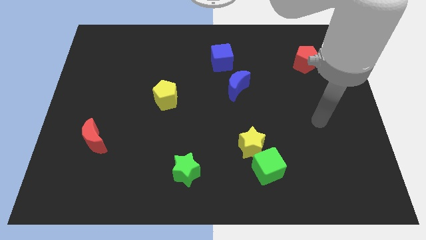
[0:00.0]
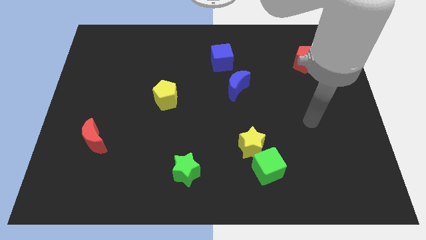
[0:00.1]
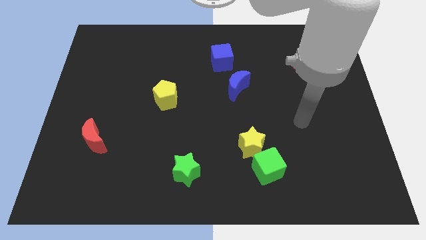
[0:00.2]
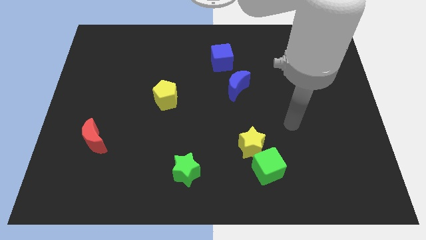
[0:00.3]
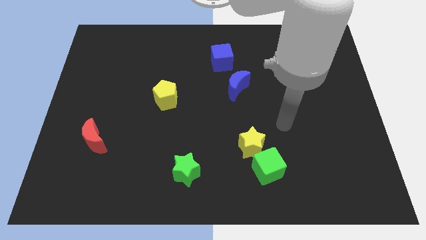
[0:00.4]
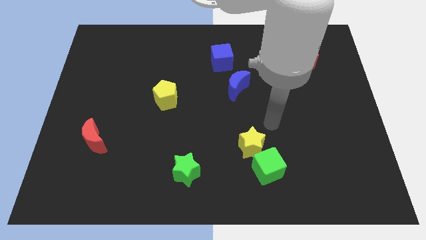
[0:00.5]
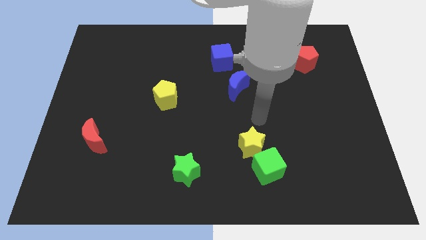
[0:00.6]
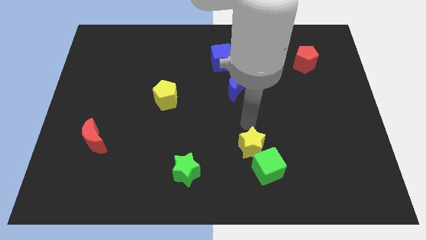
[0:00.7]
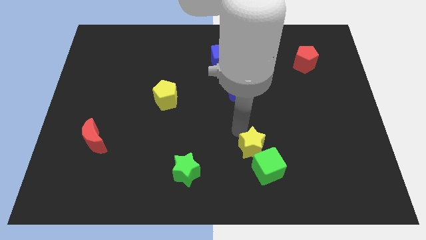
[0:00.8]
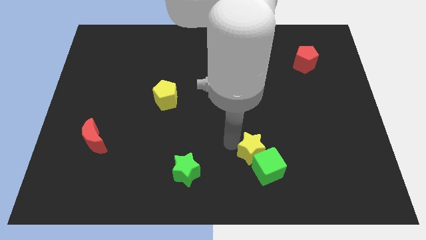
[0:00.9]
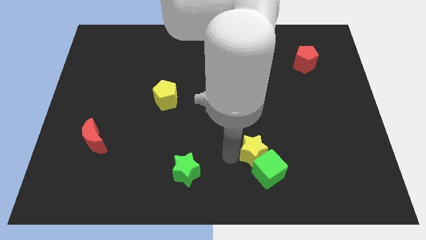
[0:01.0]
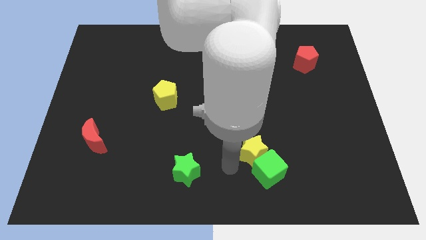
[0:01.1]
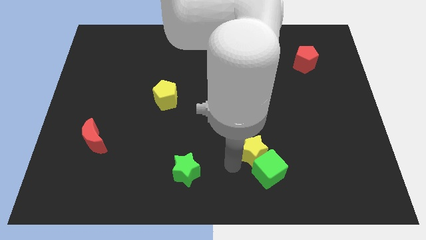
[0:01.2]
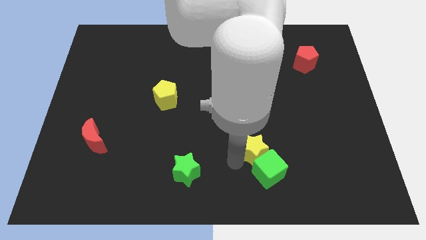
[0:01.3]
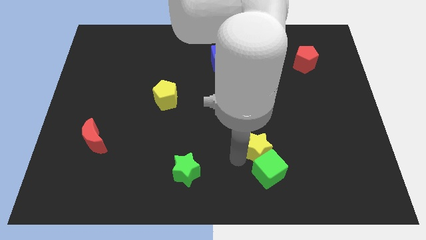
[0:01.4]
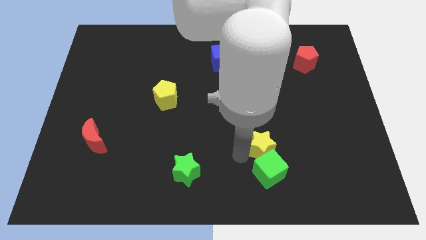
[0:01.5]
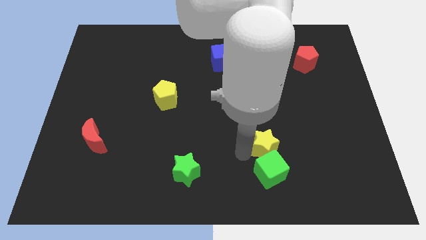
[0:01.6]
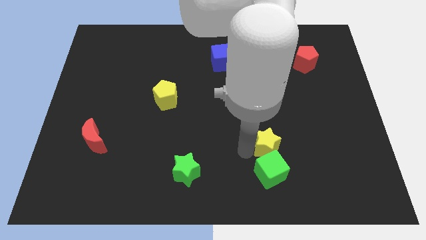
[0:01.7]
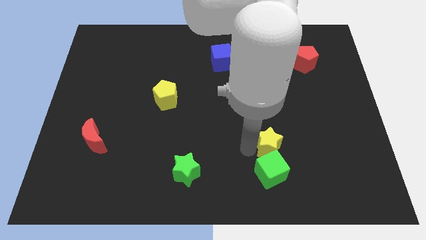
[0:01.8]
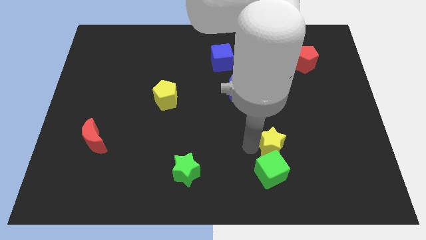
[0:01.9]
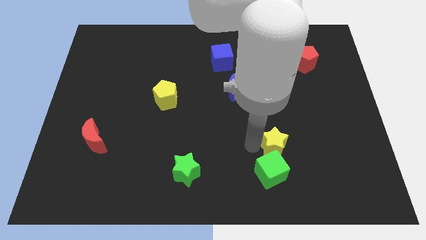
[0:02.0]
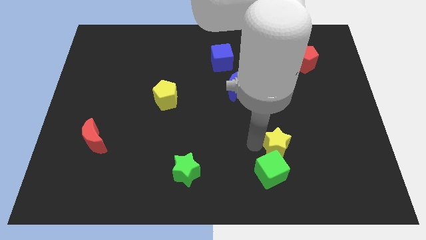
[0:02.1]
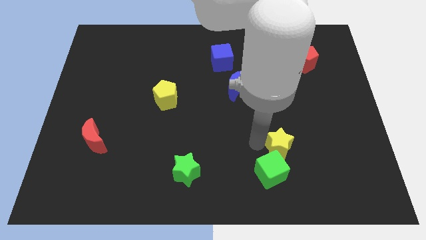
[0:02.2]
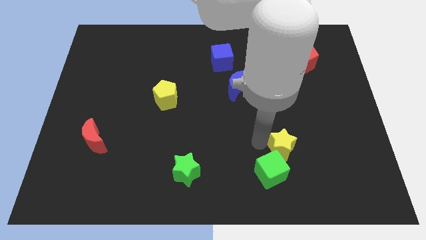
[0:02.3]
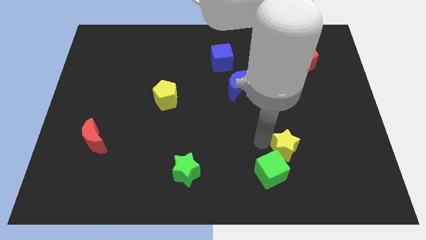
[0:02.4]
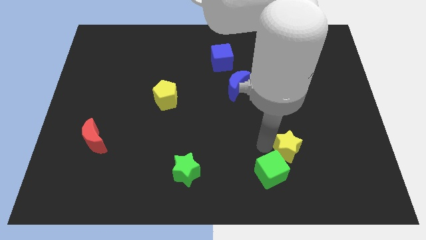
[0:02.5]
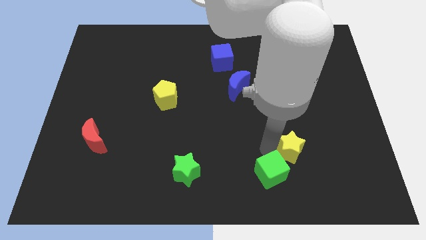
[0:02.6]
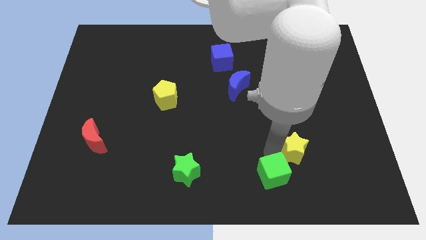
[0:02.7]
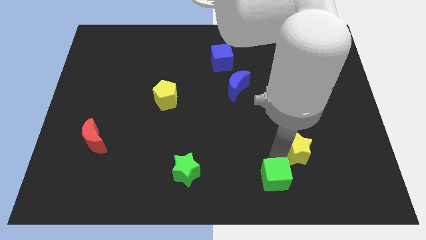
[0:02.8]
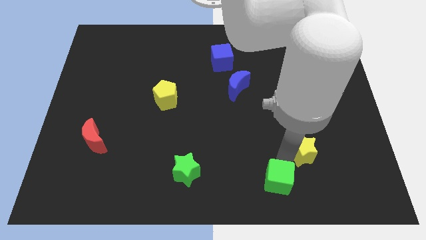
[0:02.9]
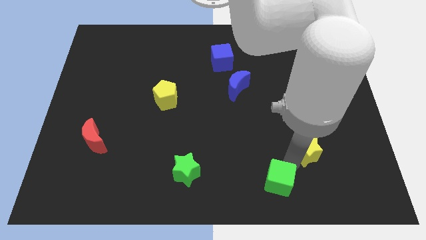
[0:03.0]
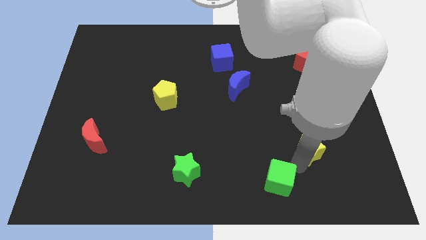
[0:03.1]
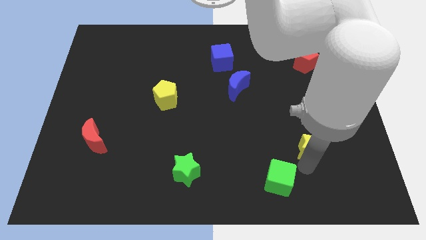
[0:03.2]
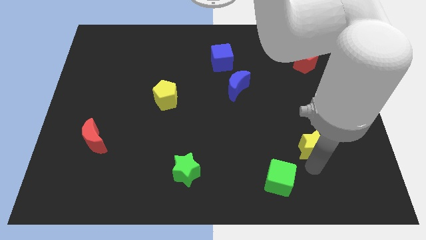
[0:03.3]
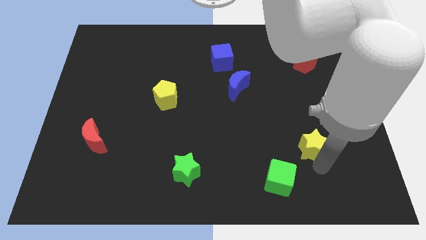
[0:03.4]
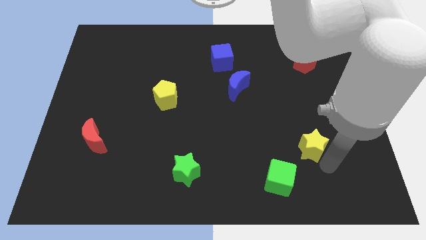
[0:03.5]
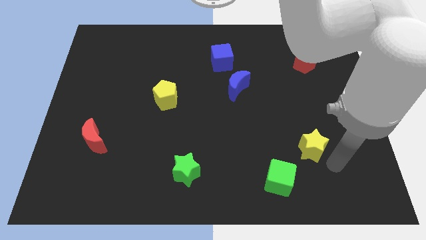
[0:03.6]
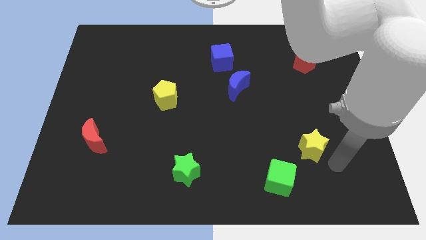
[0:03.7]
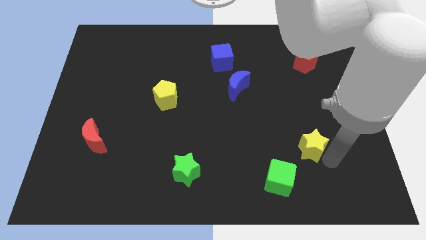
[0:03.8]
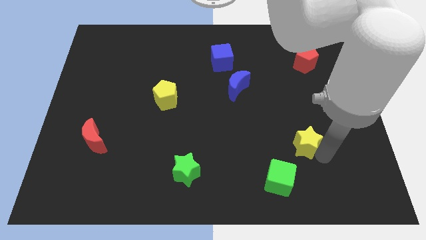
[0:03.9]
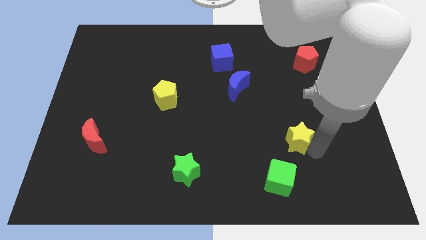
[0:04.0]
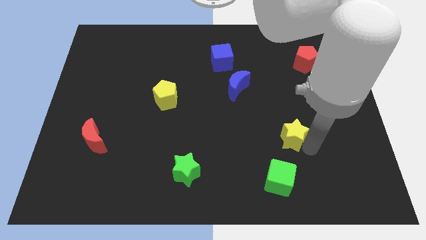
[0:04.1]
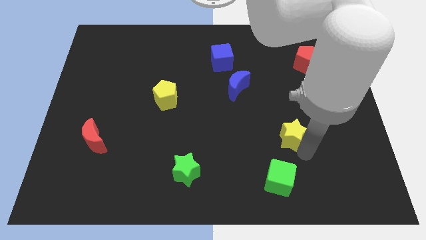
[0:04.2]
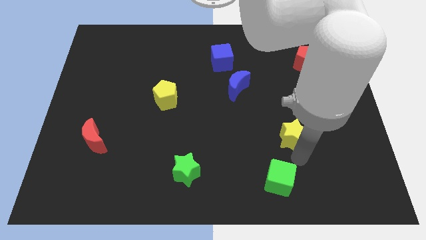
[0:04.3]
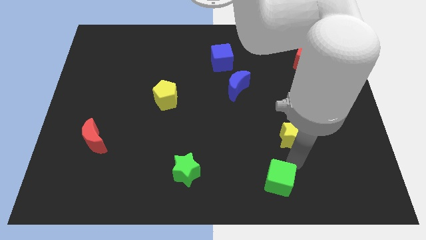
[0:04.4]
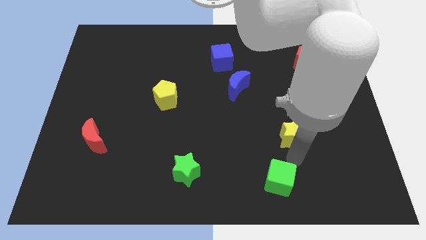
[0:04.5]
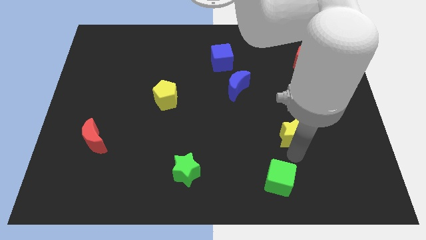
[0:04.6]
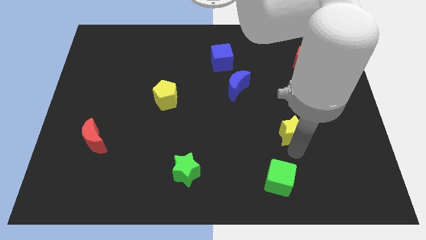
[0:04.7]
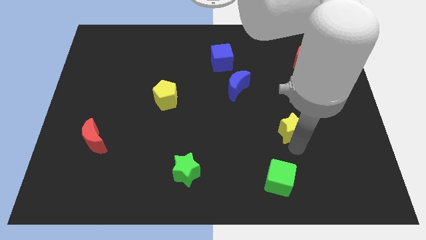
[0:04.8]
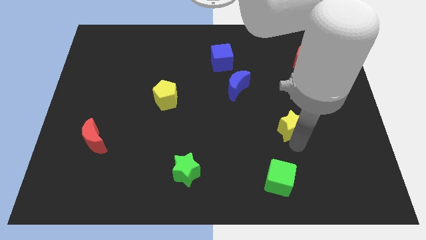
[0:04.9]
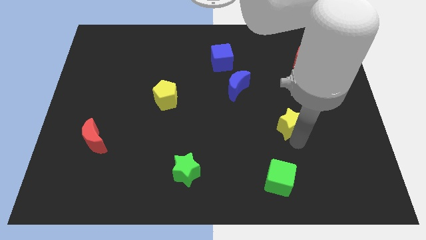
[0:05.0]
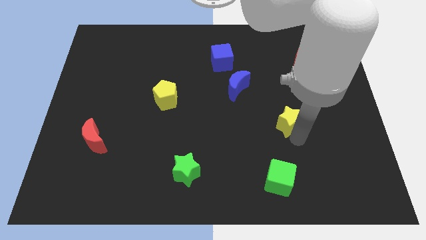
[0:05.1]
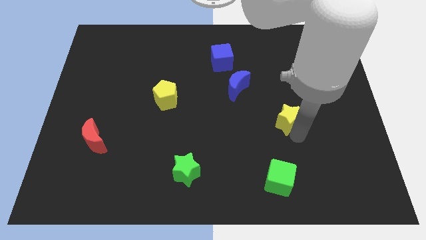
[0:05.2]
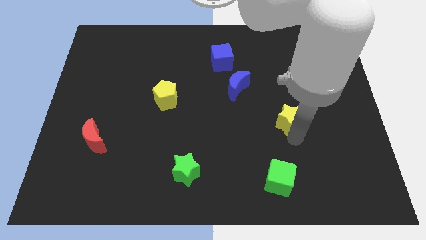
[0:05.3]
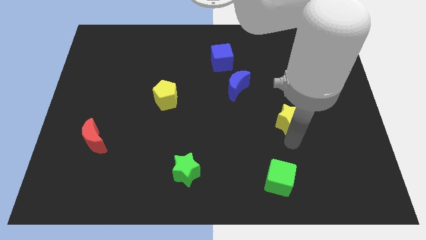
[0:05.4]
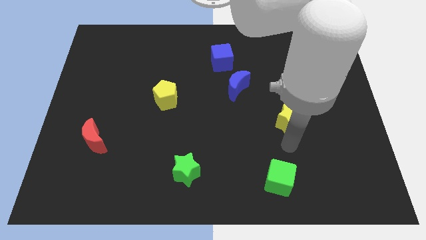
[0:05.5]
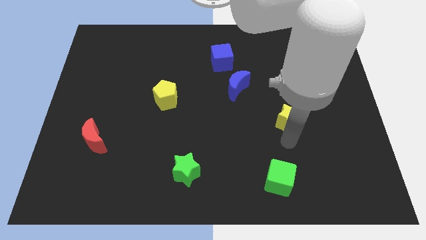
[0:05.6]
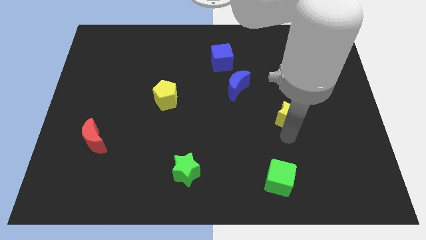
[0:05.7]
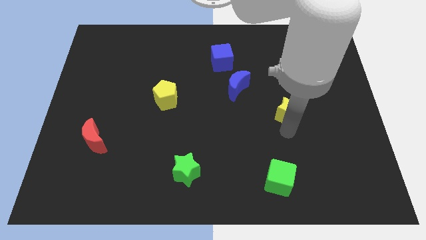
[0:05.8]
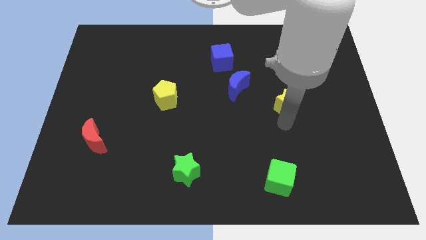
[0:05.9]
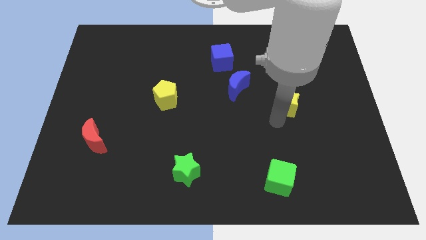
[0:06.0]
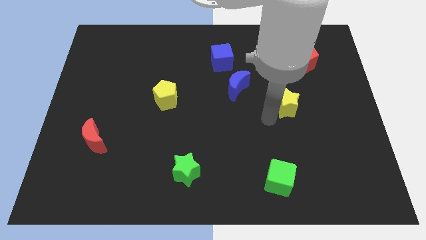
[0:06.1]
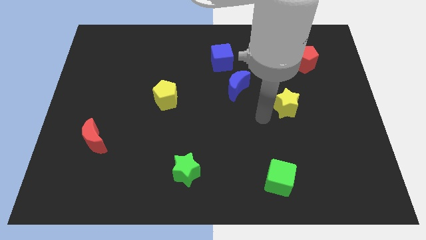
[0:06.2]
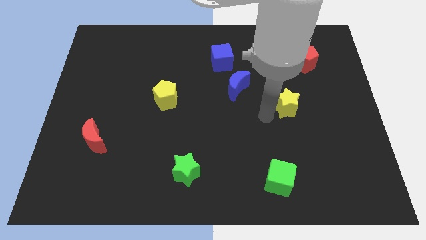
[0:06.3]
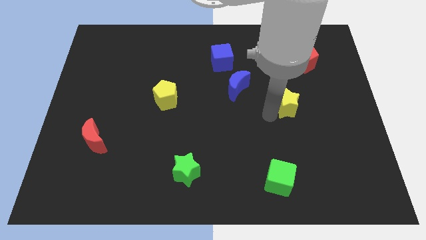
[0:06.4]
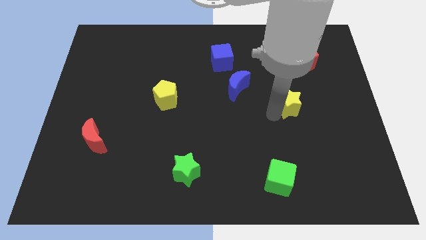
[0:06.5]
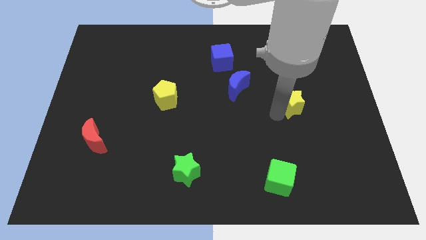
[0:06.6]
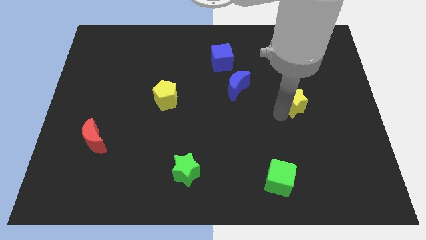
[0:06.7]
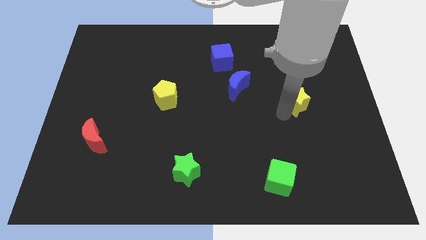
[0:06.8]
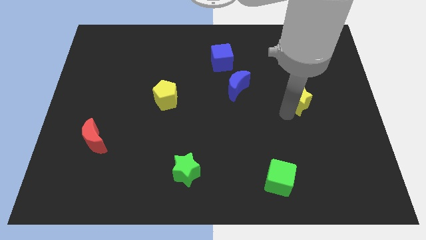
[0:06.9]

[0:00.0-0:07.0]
push the yellow star to the bottom of the red pentagon

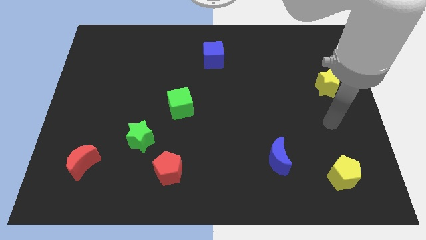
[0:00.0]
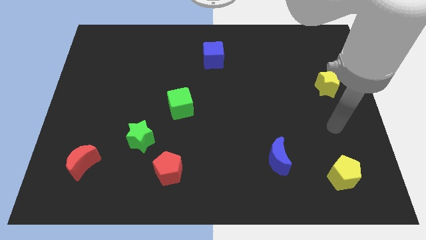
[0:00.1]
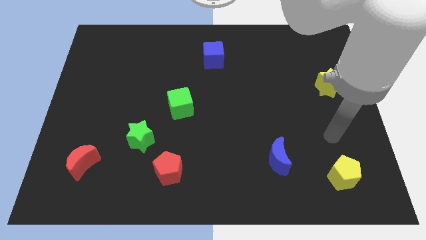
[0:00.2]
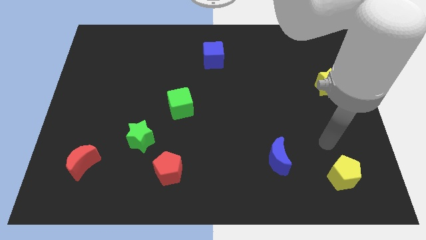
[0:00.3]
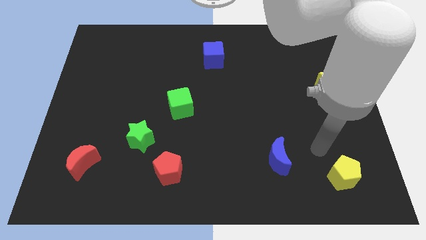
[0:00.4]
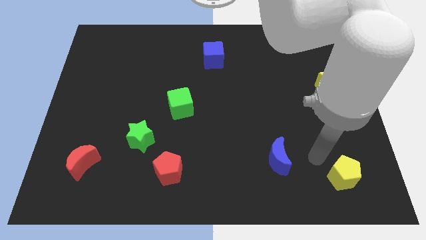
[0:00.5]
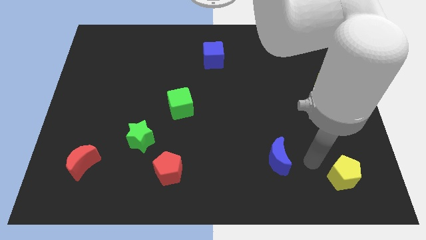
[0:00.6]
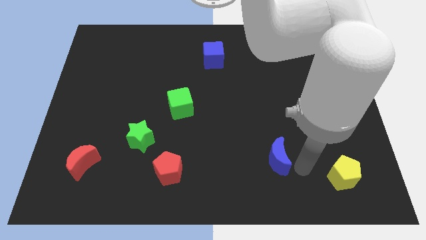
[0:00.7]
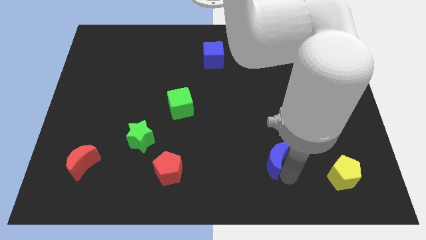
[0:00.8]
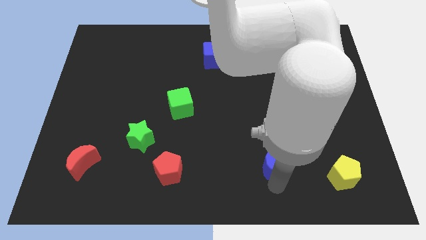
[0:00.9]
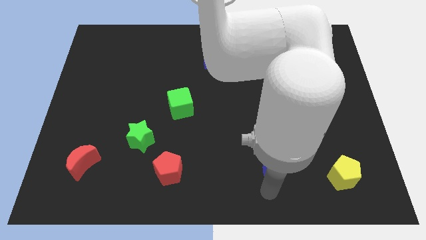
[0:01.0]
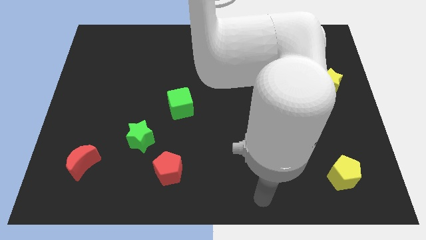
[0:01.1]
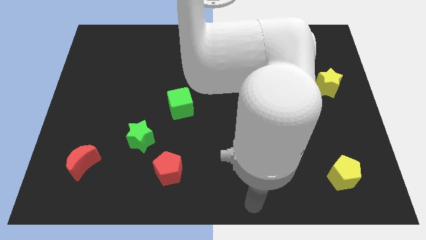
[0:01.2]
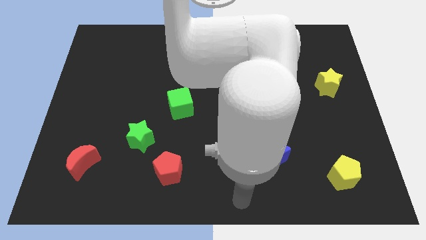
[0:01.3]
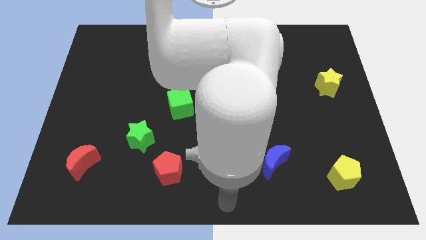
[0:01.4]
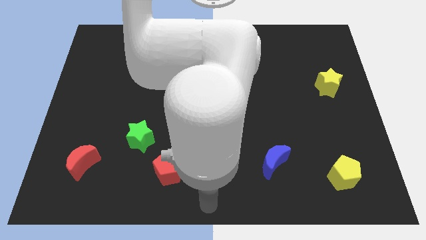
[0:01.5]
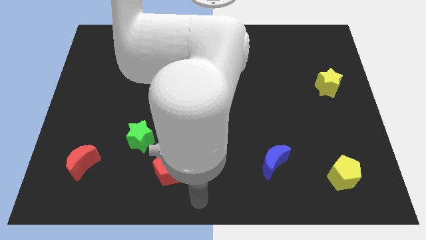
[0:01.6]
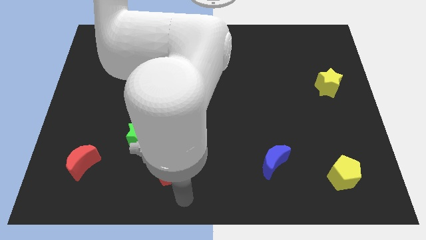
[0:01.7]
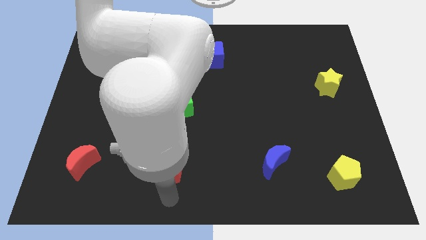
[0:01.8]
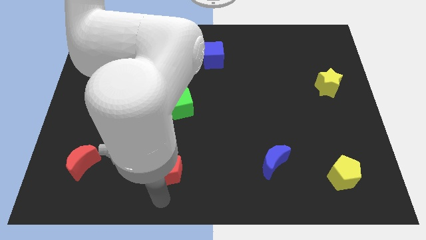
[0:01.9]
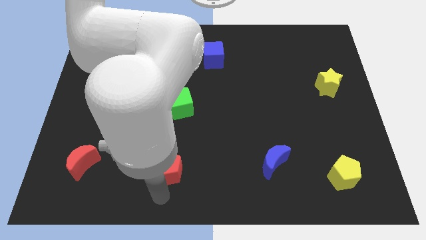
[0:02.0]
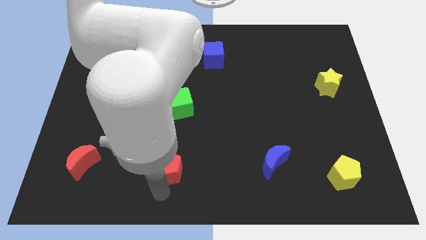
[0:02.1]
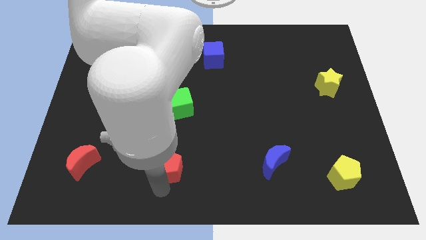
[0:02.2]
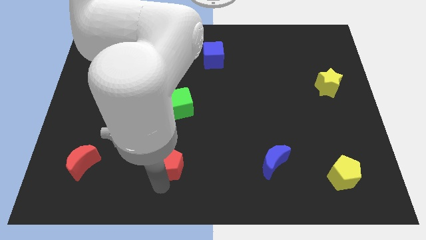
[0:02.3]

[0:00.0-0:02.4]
move the red pentagon to the bottom of the green cube
